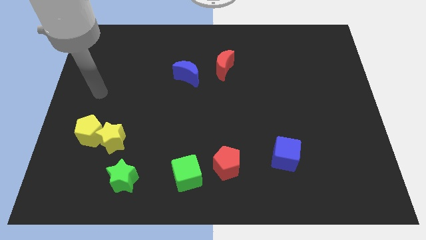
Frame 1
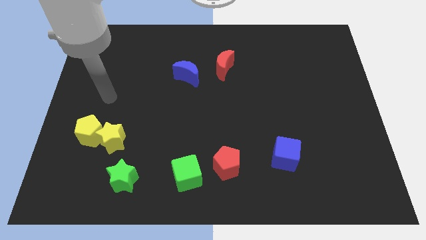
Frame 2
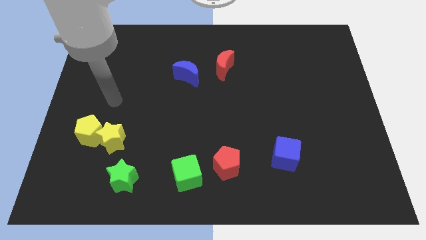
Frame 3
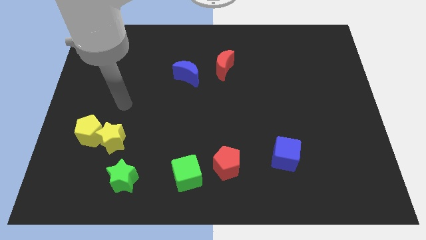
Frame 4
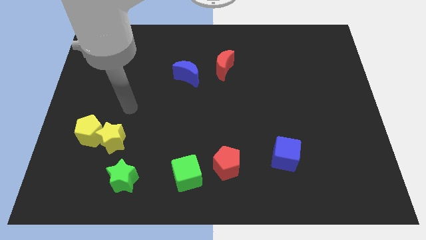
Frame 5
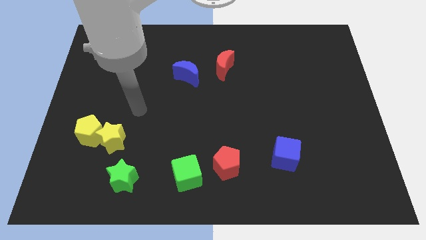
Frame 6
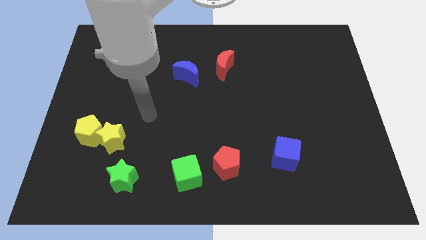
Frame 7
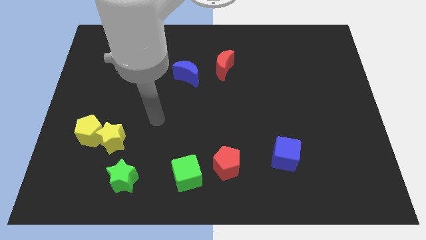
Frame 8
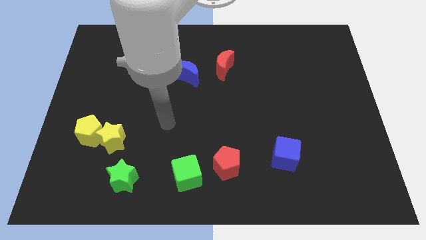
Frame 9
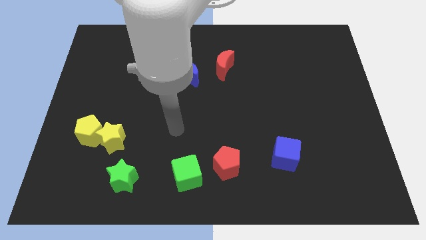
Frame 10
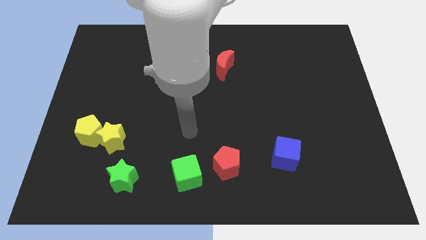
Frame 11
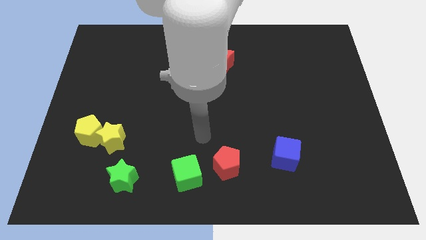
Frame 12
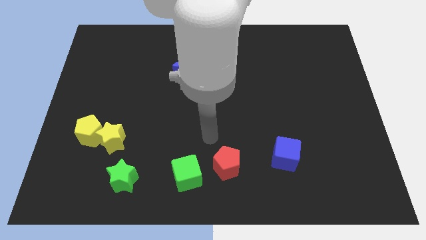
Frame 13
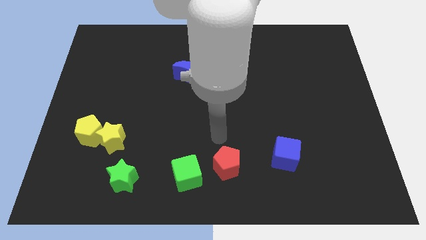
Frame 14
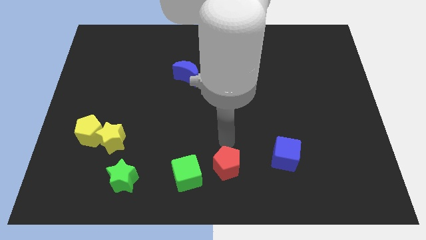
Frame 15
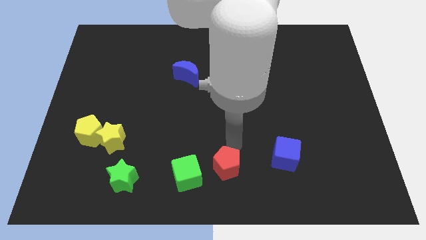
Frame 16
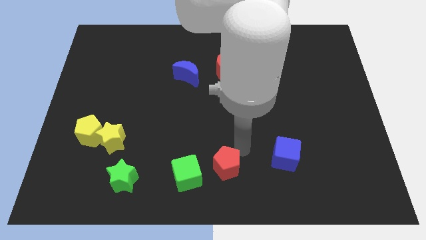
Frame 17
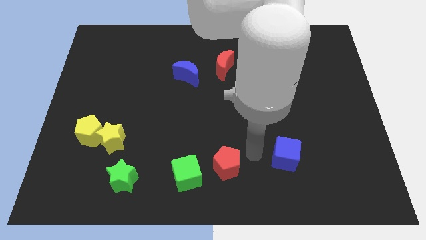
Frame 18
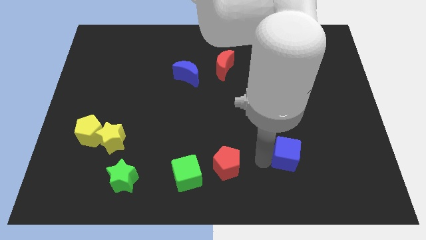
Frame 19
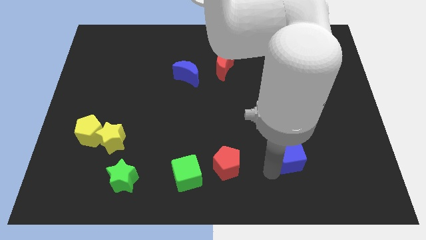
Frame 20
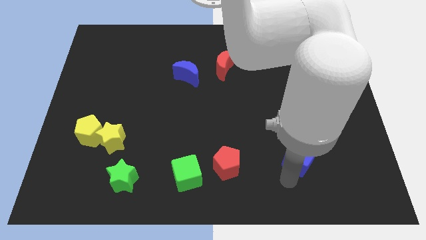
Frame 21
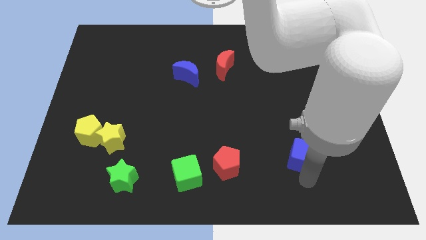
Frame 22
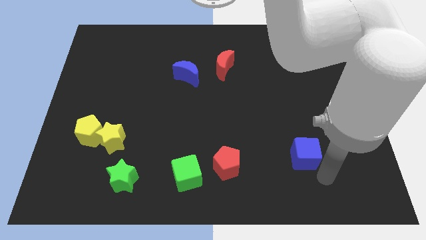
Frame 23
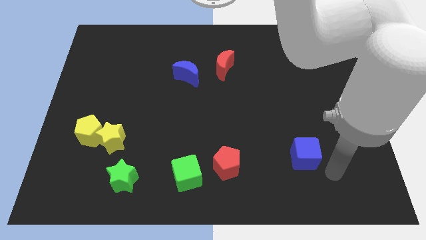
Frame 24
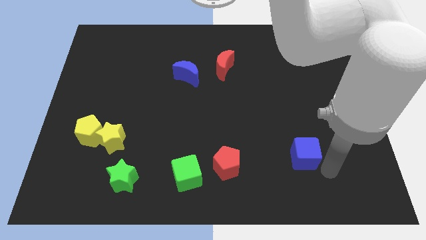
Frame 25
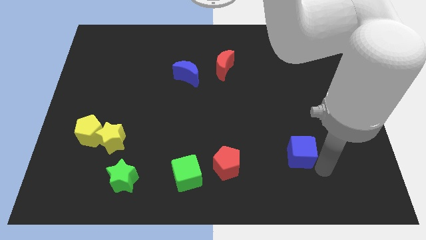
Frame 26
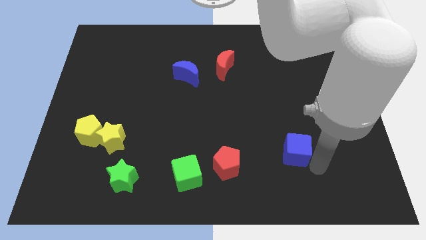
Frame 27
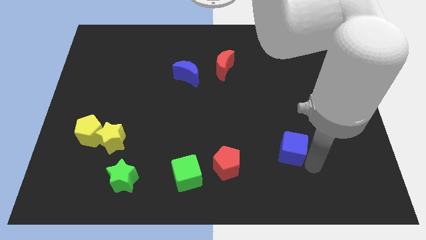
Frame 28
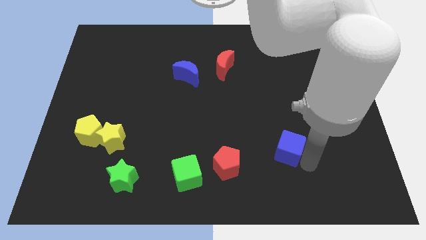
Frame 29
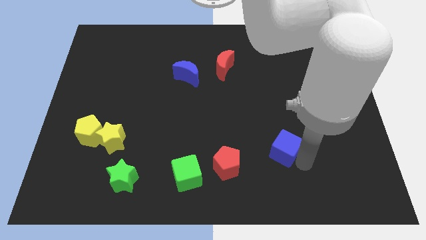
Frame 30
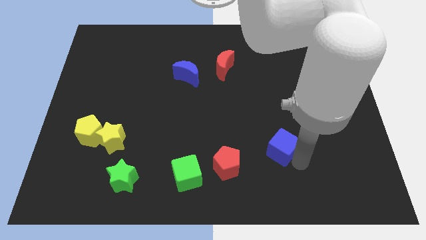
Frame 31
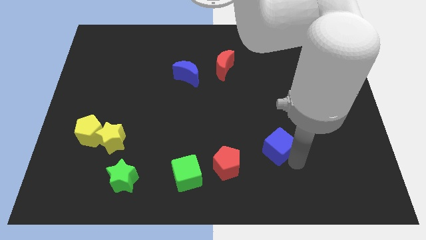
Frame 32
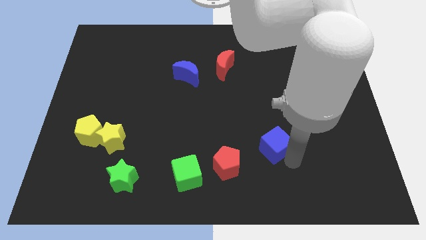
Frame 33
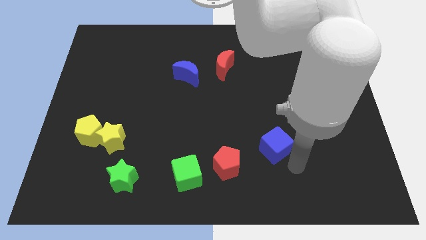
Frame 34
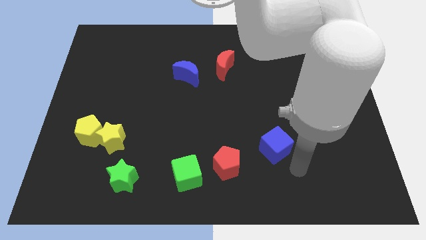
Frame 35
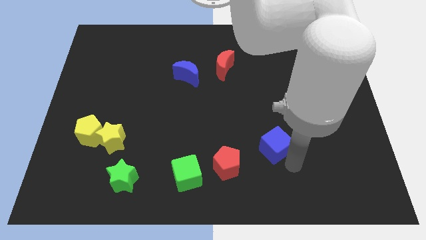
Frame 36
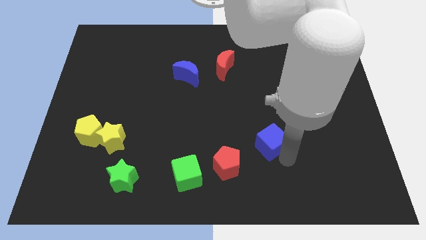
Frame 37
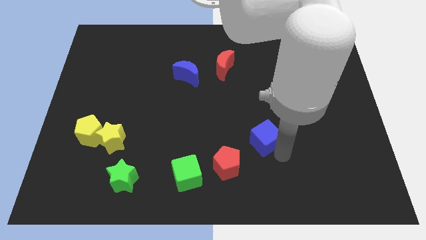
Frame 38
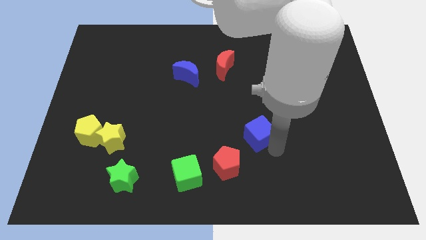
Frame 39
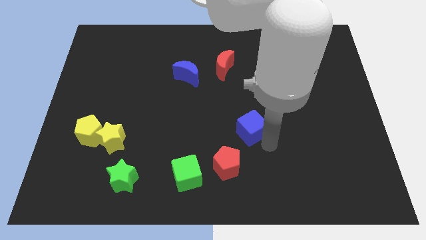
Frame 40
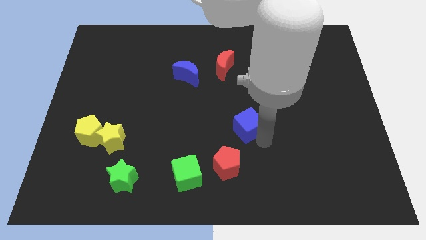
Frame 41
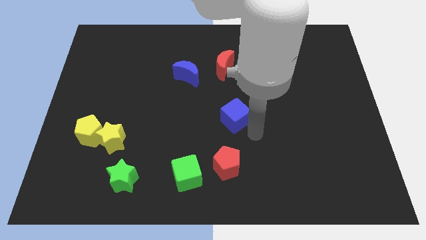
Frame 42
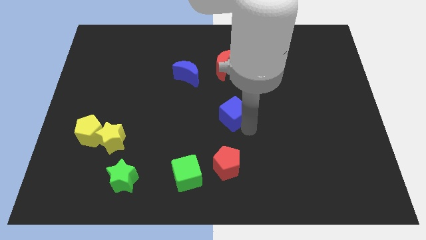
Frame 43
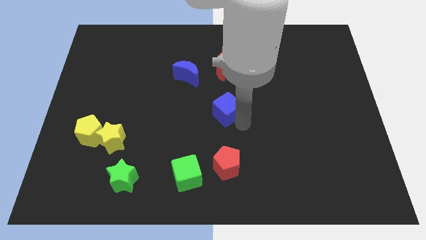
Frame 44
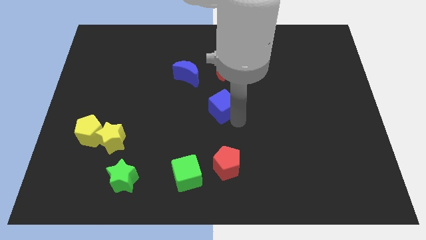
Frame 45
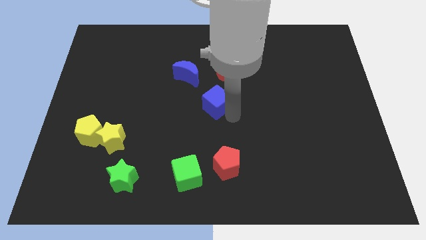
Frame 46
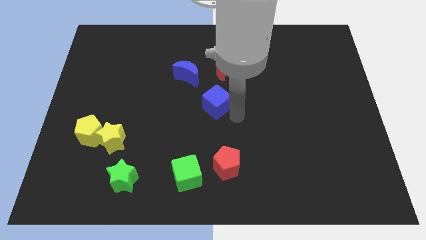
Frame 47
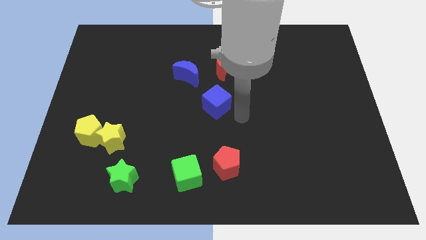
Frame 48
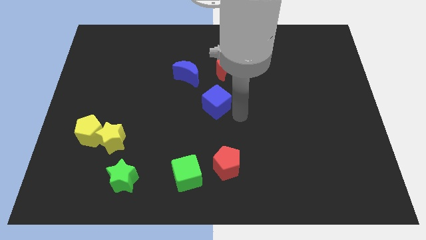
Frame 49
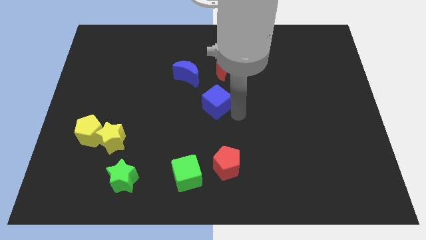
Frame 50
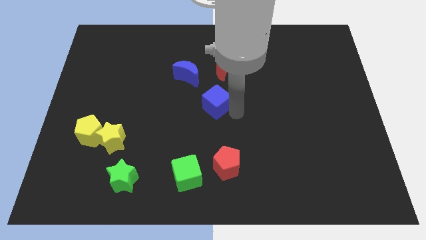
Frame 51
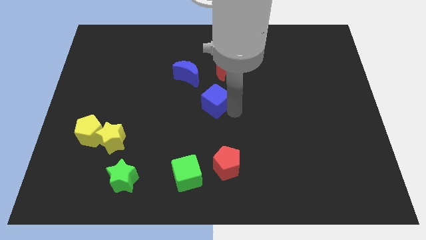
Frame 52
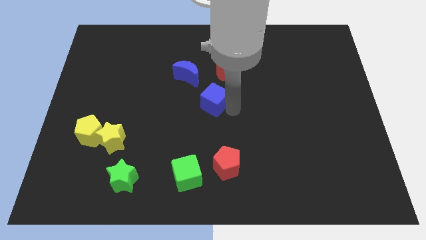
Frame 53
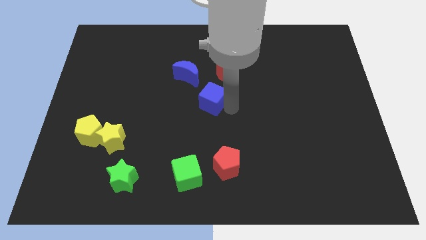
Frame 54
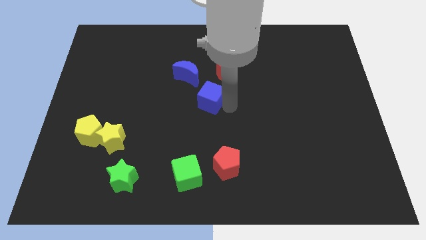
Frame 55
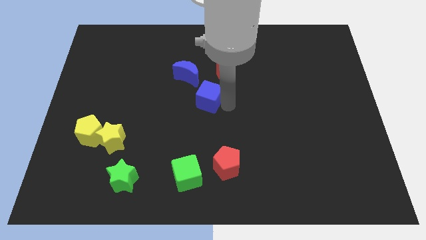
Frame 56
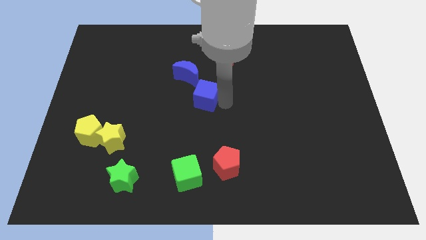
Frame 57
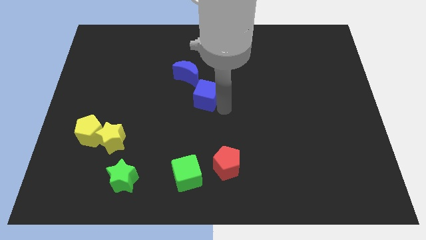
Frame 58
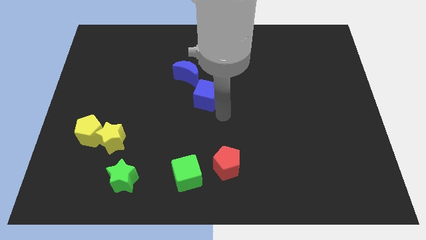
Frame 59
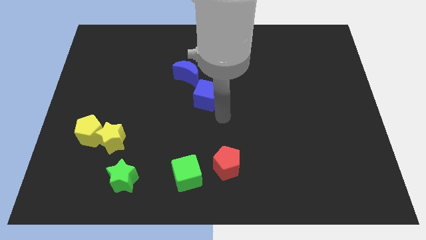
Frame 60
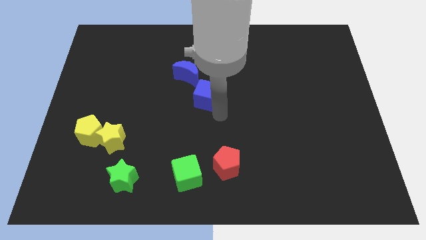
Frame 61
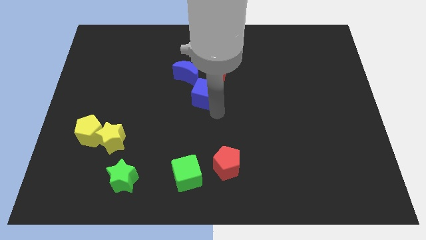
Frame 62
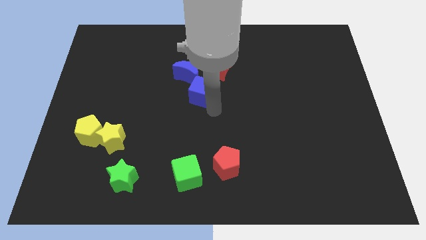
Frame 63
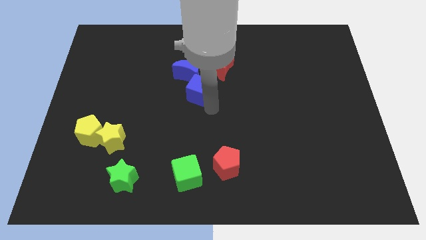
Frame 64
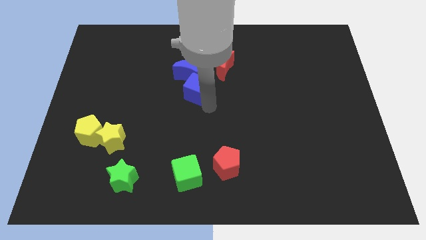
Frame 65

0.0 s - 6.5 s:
slide the blue cube to the blue moon
